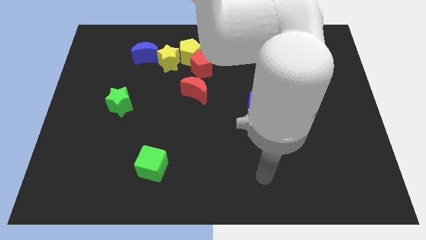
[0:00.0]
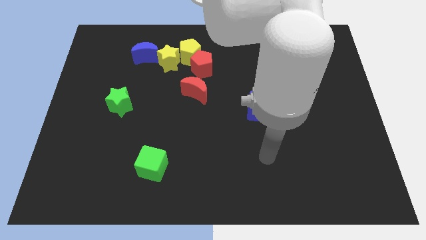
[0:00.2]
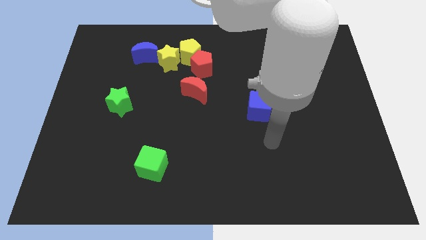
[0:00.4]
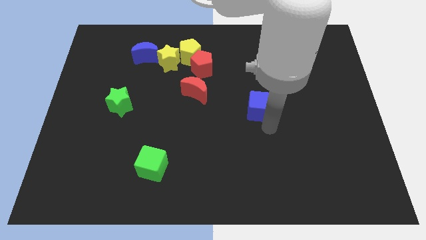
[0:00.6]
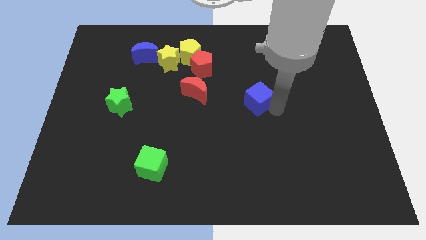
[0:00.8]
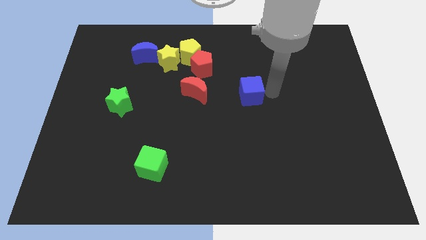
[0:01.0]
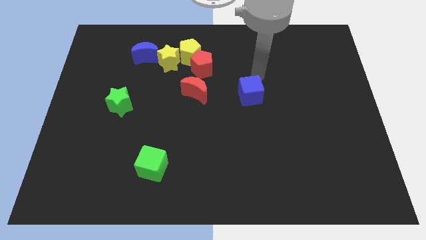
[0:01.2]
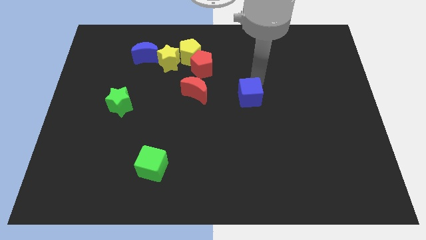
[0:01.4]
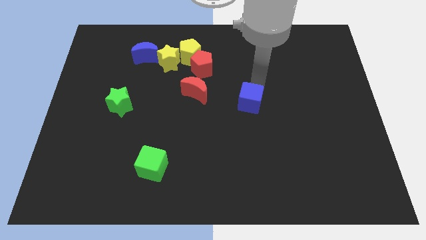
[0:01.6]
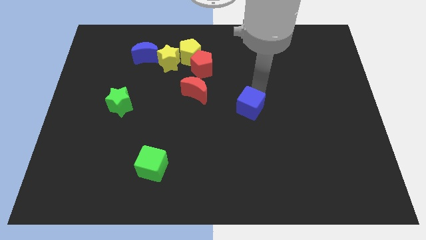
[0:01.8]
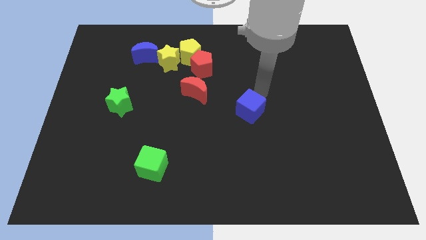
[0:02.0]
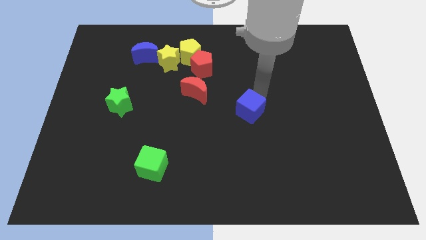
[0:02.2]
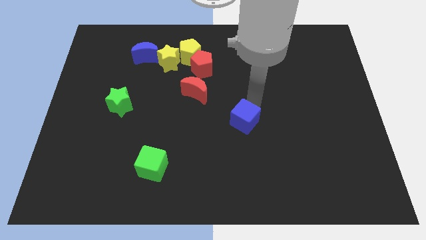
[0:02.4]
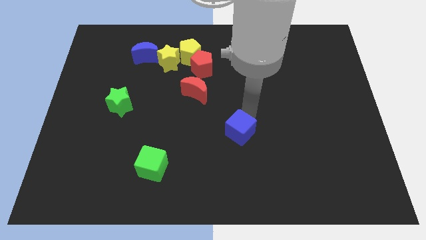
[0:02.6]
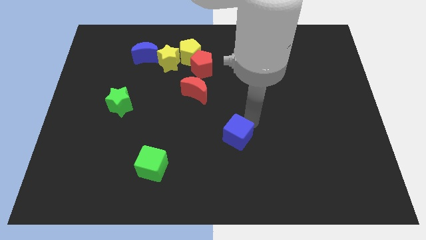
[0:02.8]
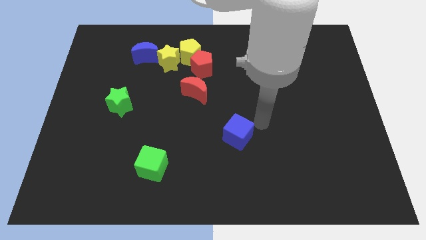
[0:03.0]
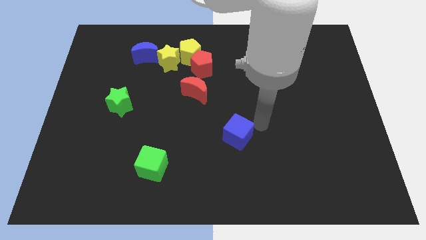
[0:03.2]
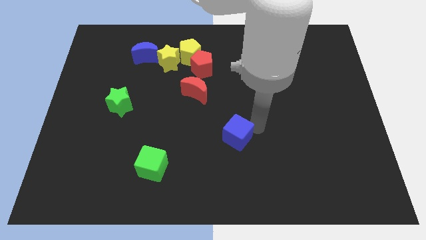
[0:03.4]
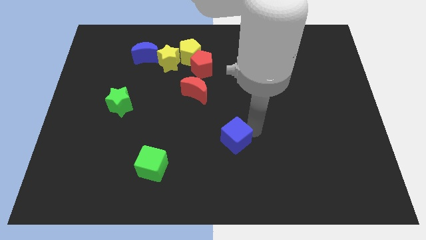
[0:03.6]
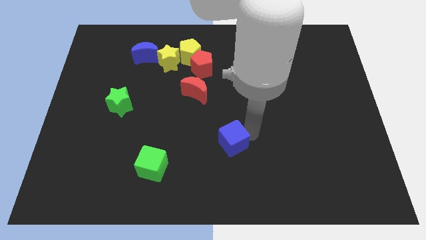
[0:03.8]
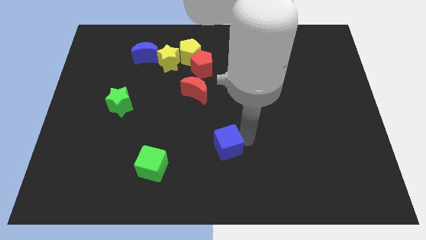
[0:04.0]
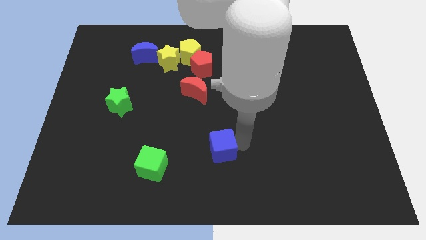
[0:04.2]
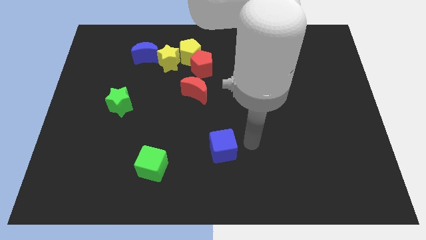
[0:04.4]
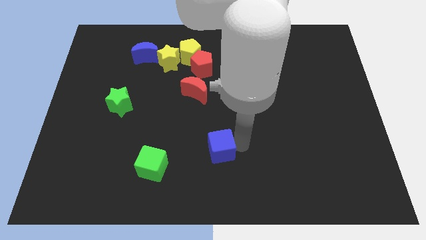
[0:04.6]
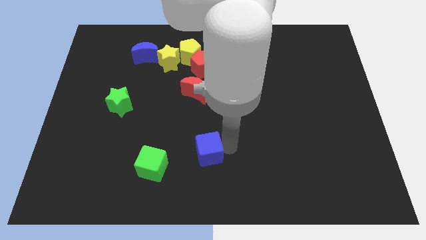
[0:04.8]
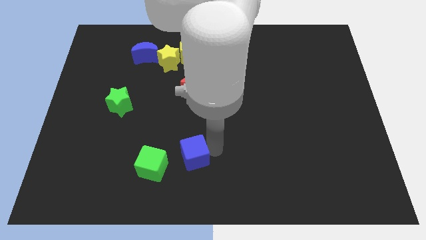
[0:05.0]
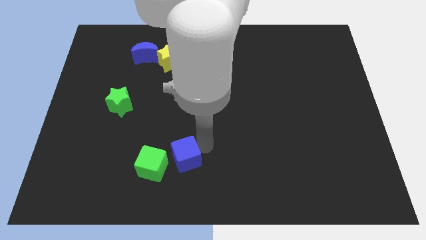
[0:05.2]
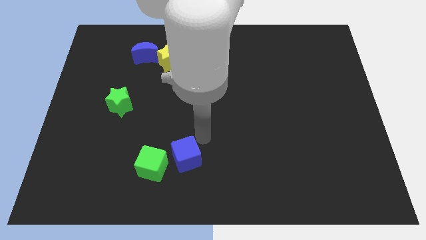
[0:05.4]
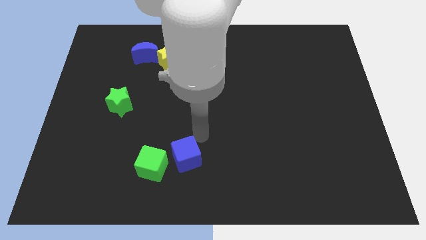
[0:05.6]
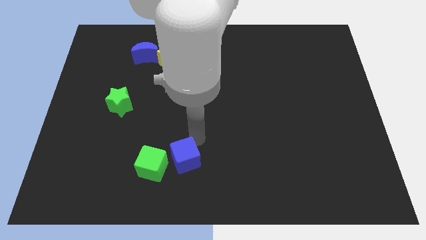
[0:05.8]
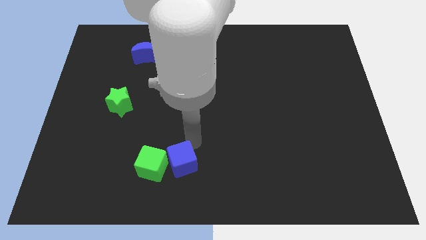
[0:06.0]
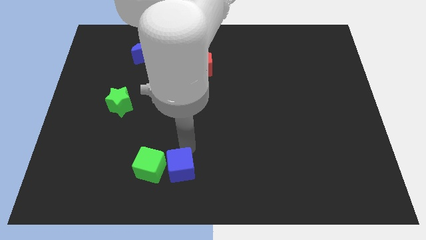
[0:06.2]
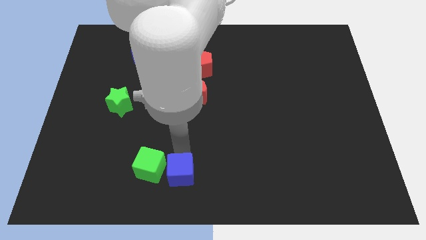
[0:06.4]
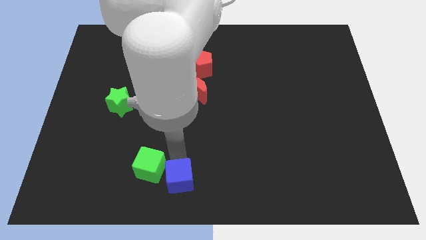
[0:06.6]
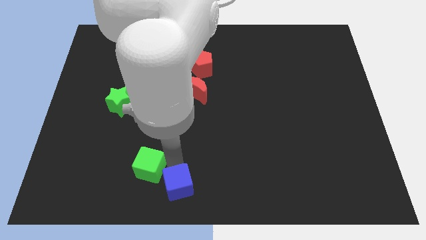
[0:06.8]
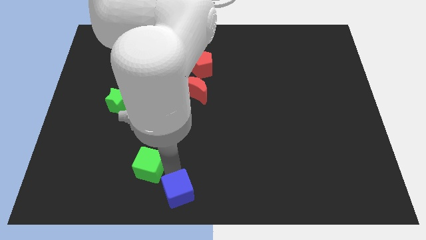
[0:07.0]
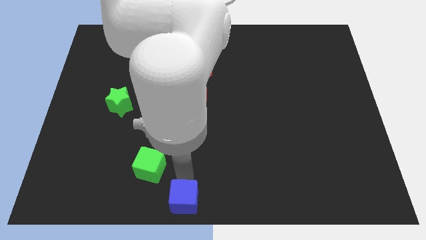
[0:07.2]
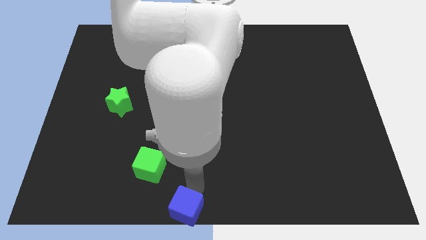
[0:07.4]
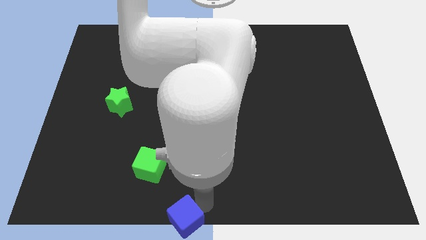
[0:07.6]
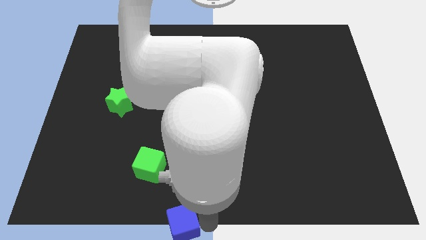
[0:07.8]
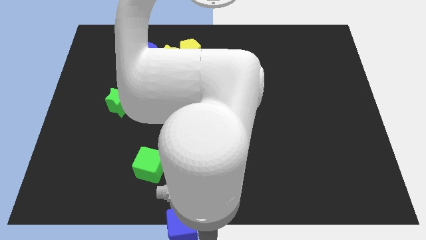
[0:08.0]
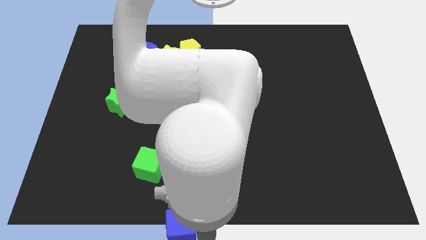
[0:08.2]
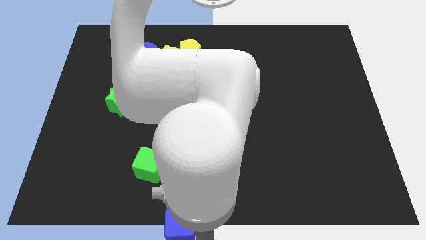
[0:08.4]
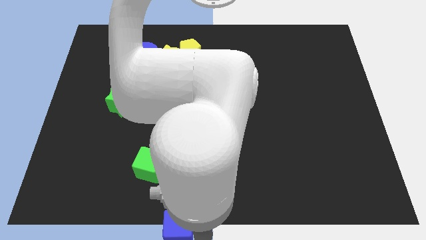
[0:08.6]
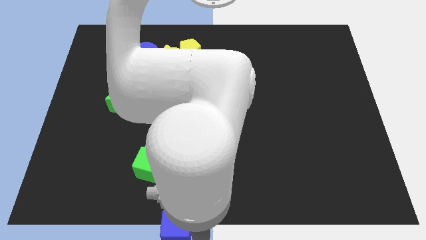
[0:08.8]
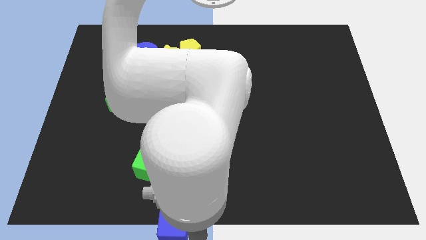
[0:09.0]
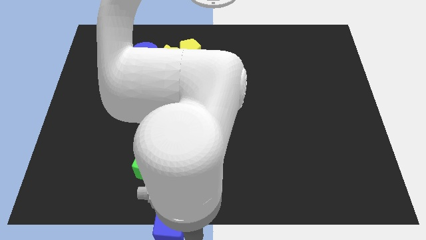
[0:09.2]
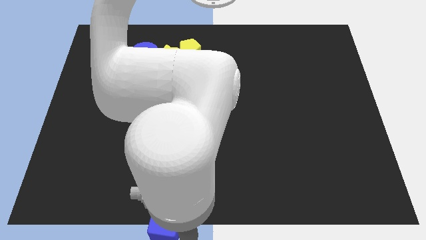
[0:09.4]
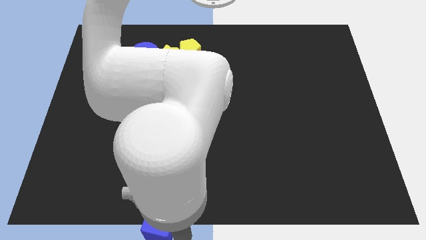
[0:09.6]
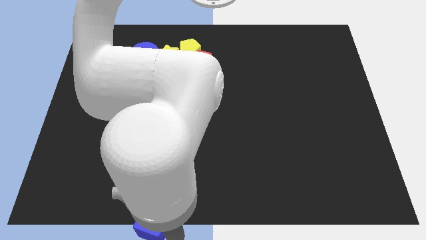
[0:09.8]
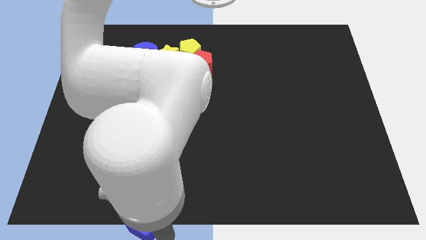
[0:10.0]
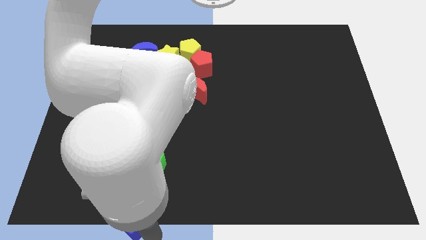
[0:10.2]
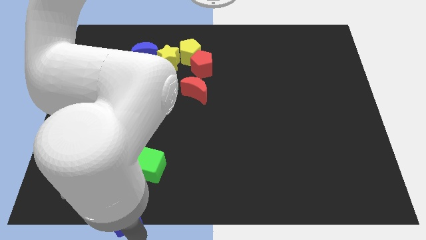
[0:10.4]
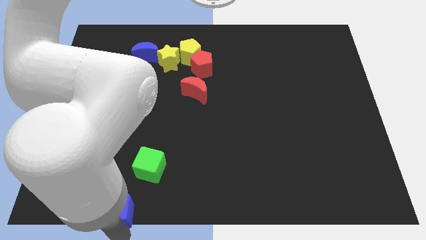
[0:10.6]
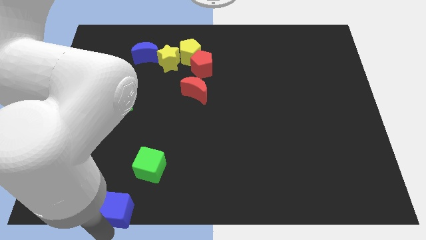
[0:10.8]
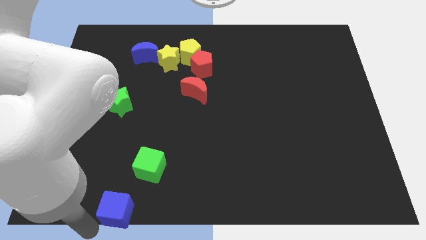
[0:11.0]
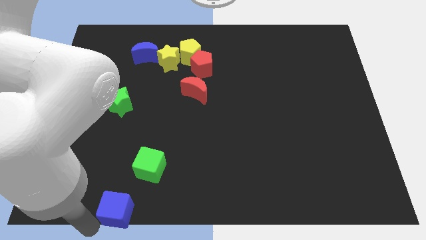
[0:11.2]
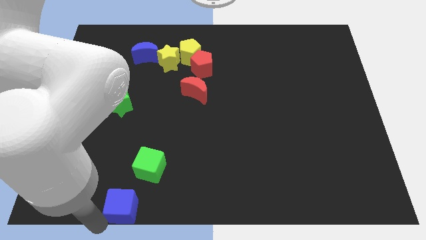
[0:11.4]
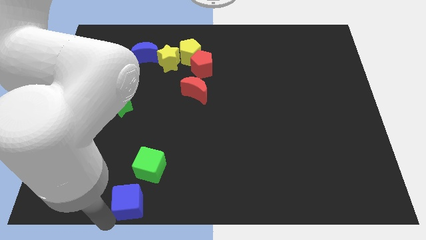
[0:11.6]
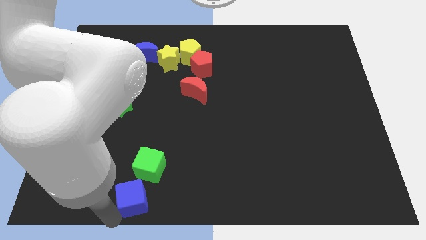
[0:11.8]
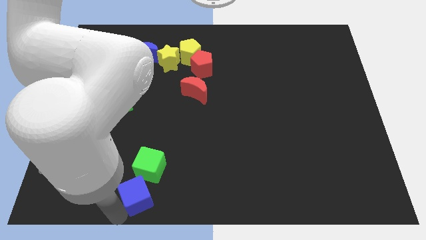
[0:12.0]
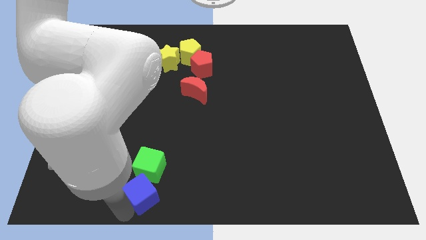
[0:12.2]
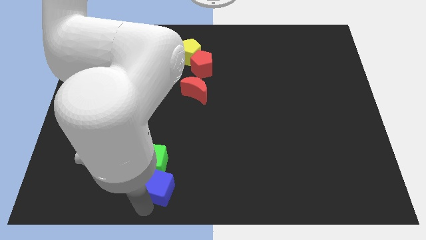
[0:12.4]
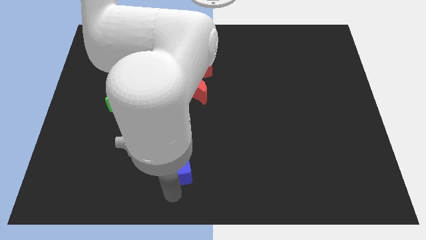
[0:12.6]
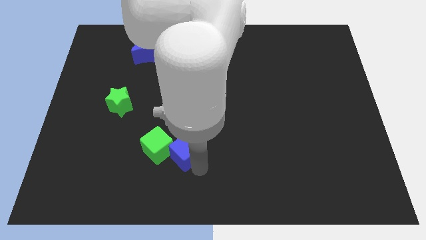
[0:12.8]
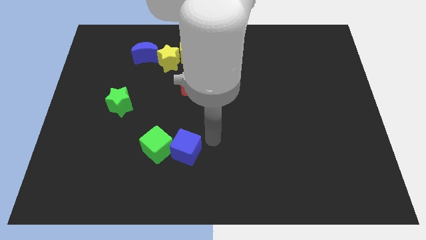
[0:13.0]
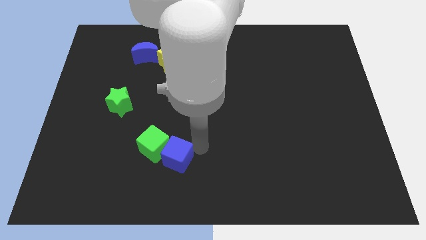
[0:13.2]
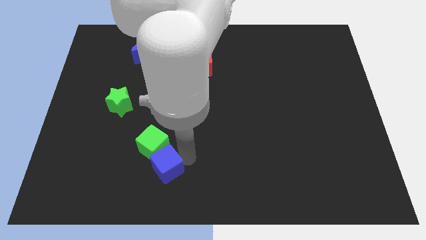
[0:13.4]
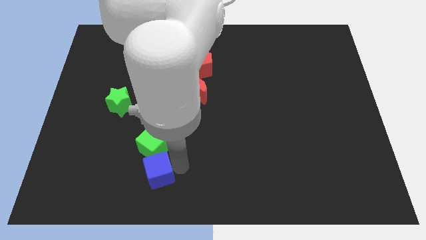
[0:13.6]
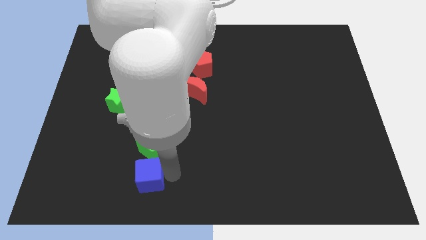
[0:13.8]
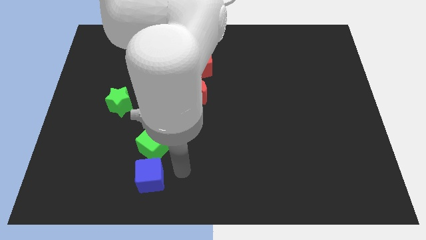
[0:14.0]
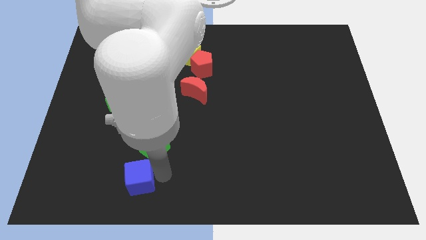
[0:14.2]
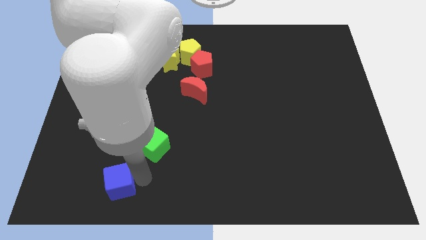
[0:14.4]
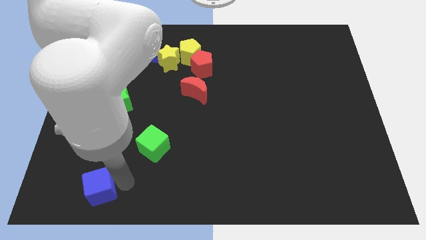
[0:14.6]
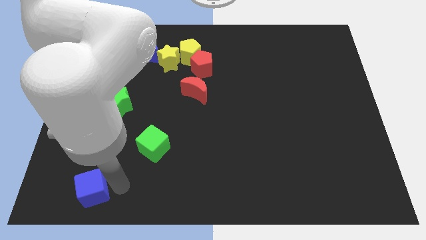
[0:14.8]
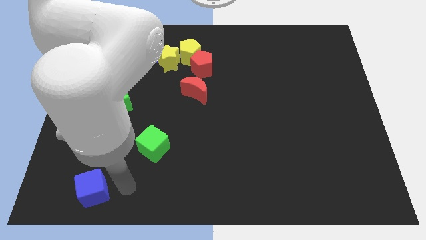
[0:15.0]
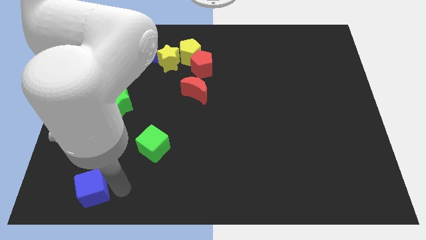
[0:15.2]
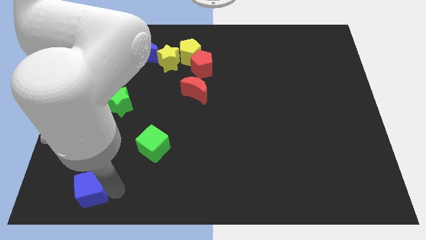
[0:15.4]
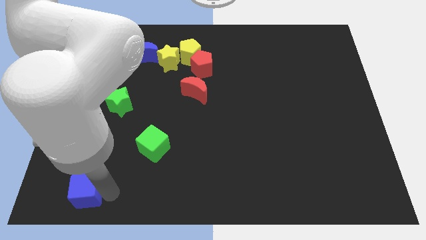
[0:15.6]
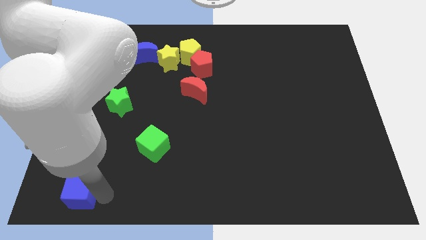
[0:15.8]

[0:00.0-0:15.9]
move the blue cube to the bottom left corner
